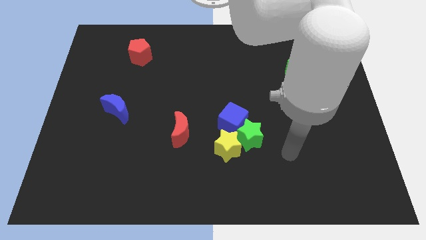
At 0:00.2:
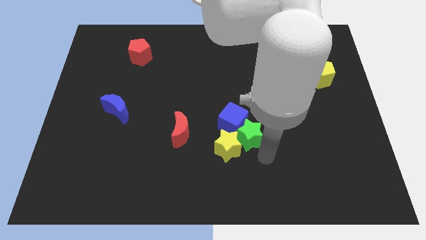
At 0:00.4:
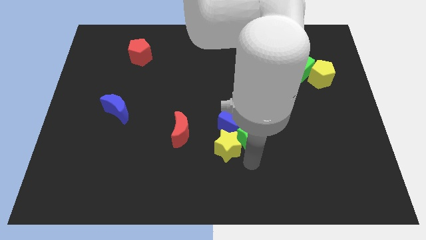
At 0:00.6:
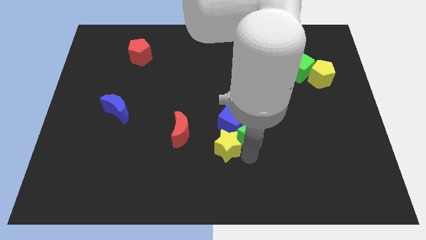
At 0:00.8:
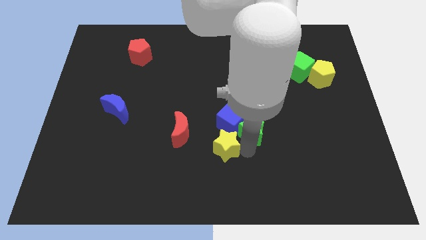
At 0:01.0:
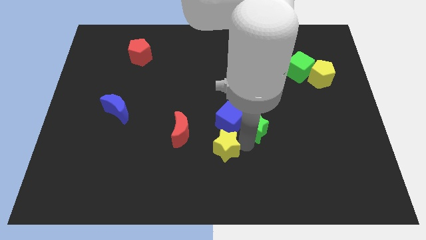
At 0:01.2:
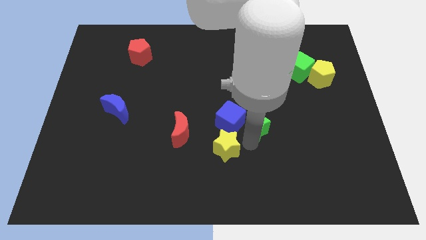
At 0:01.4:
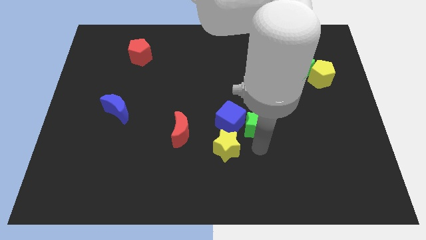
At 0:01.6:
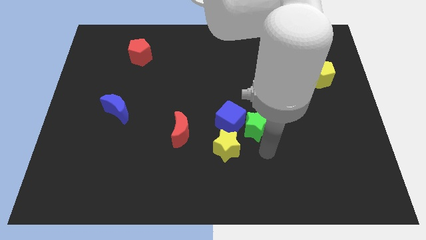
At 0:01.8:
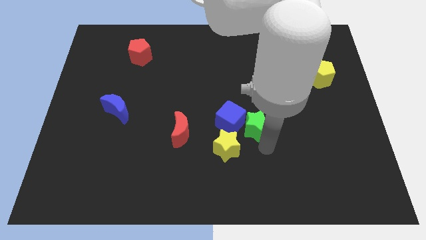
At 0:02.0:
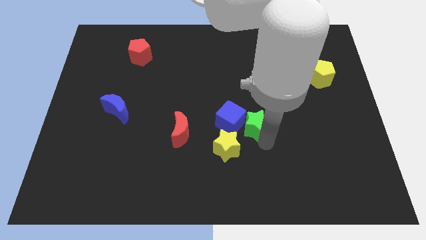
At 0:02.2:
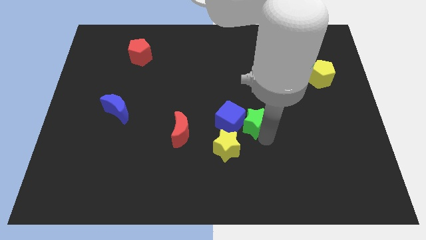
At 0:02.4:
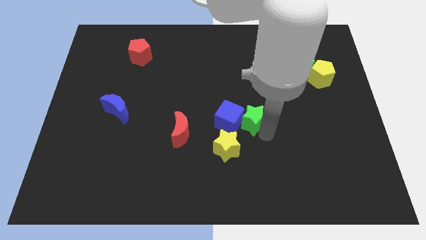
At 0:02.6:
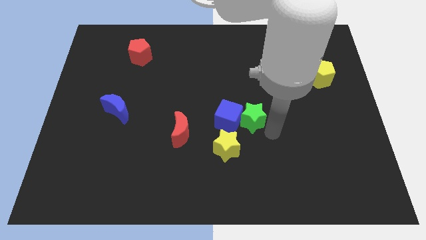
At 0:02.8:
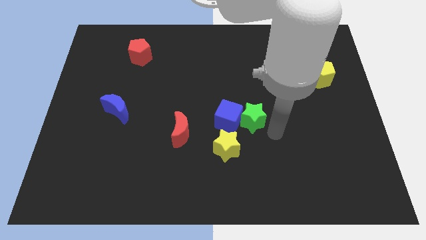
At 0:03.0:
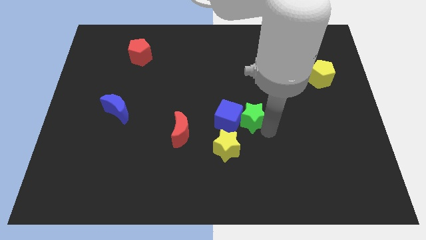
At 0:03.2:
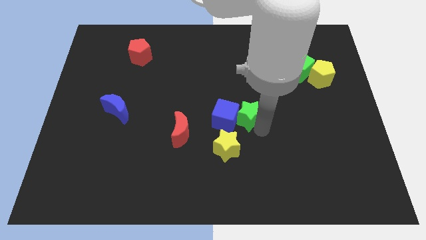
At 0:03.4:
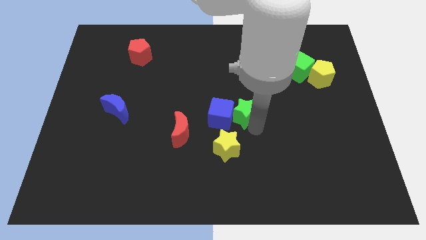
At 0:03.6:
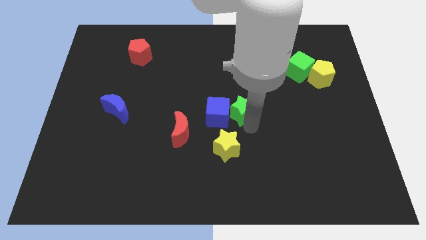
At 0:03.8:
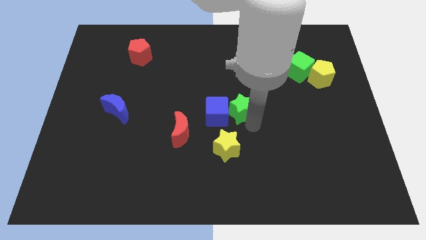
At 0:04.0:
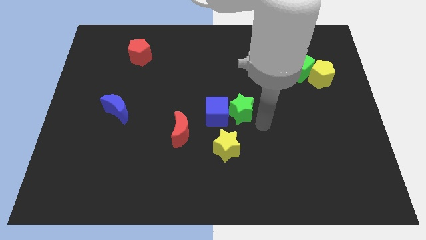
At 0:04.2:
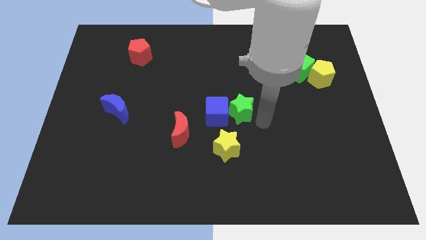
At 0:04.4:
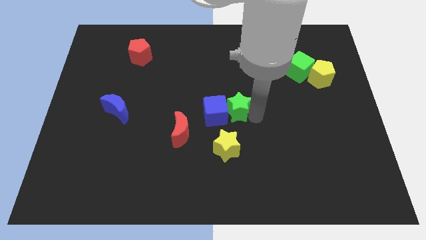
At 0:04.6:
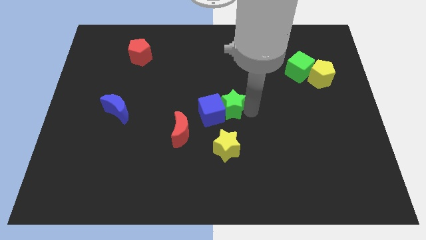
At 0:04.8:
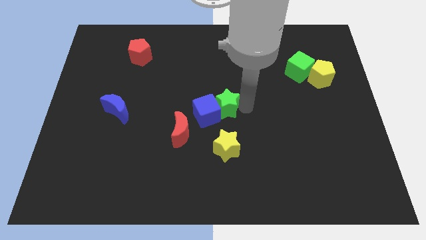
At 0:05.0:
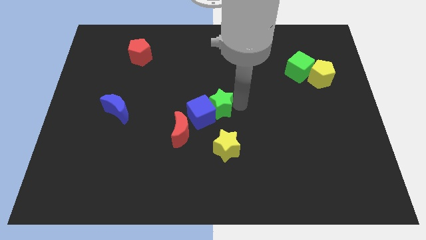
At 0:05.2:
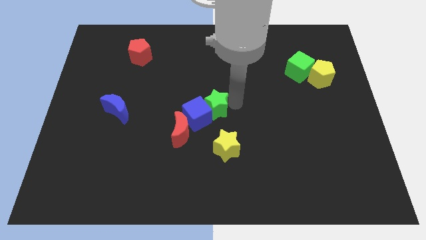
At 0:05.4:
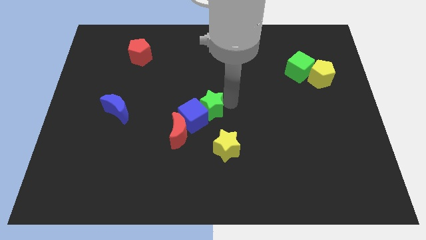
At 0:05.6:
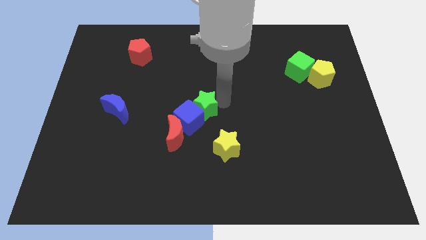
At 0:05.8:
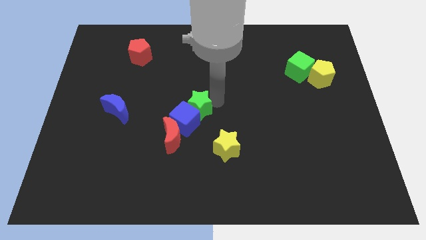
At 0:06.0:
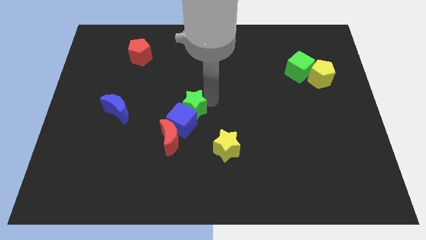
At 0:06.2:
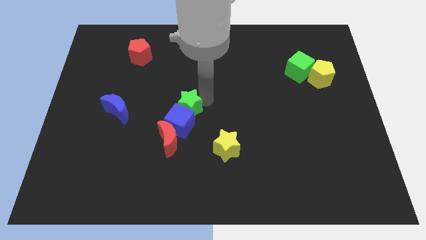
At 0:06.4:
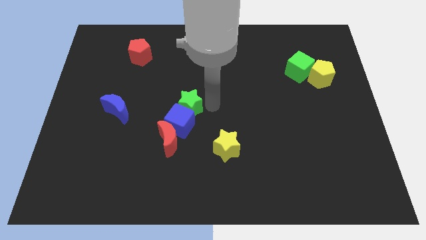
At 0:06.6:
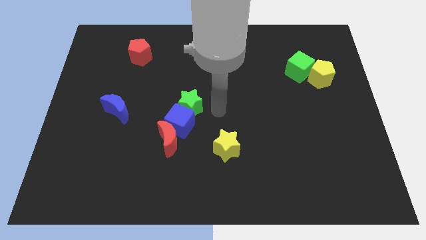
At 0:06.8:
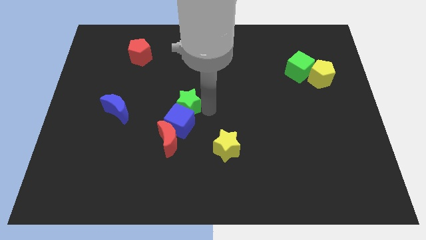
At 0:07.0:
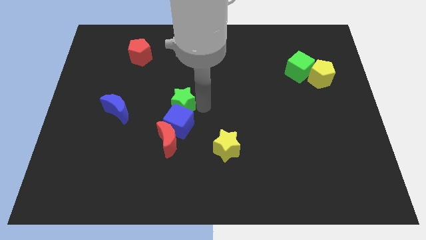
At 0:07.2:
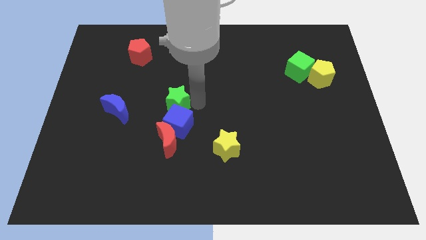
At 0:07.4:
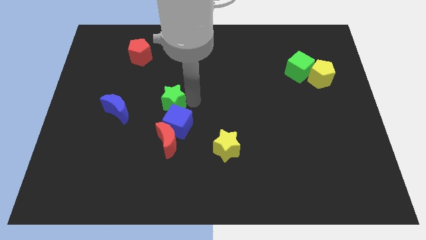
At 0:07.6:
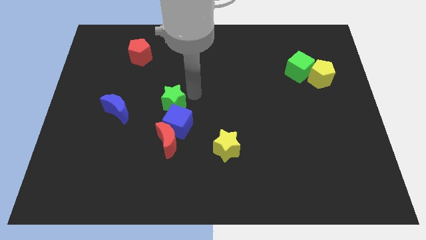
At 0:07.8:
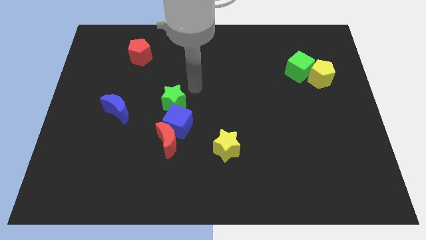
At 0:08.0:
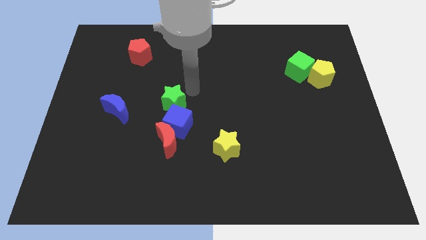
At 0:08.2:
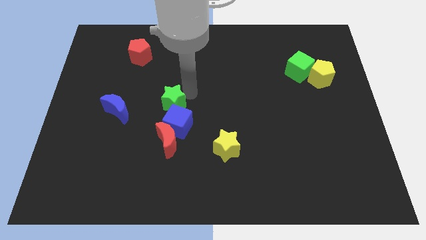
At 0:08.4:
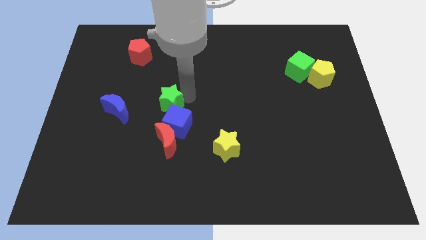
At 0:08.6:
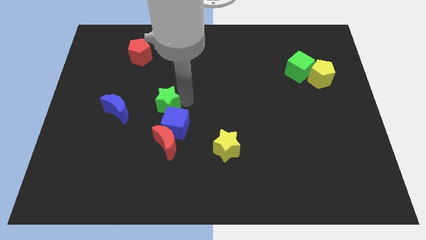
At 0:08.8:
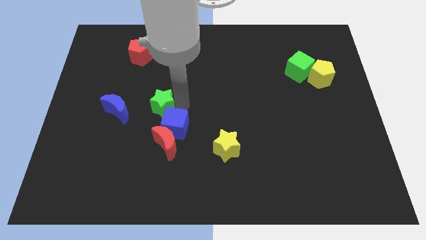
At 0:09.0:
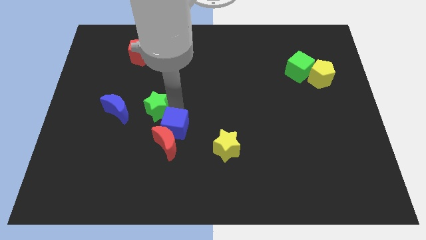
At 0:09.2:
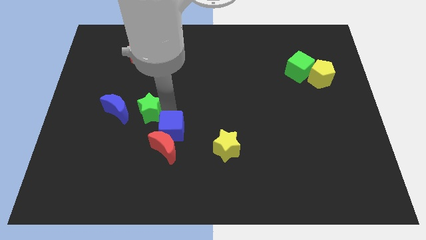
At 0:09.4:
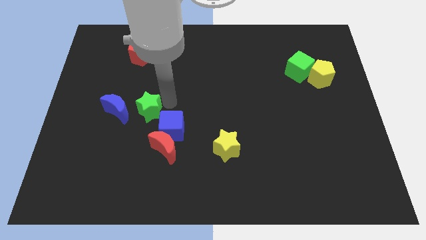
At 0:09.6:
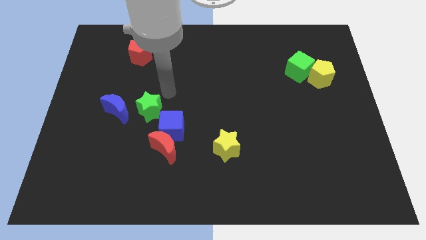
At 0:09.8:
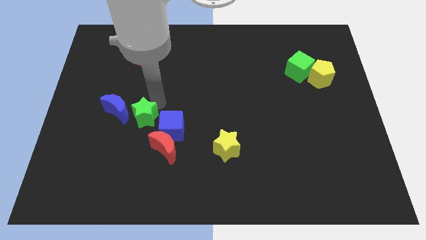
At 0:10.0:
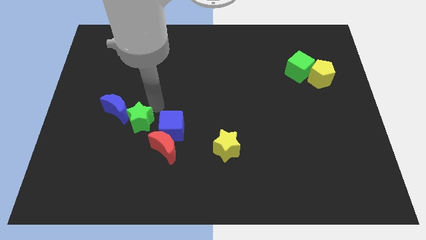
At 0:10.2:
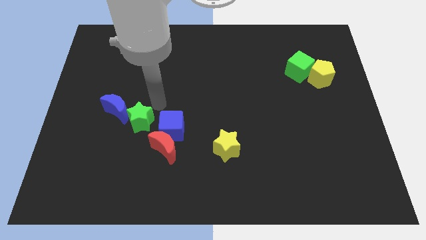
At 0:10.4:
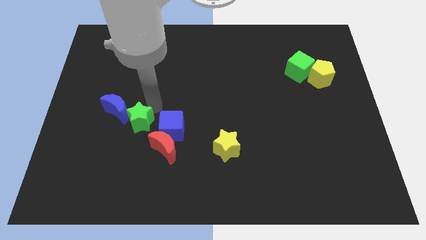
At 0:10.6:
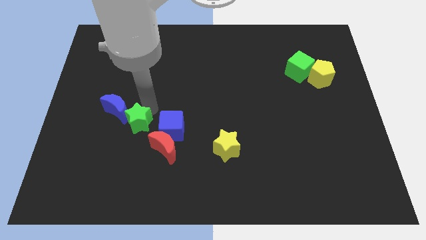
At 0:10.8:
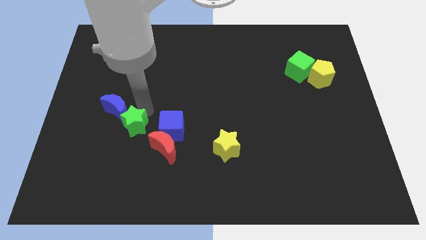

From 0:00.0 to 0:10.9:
slide the green star below the blue moon

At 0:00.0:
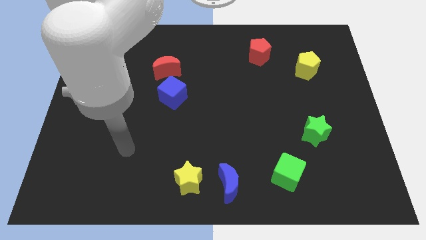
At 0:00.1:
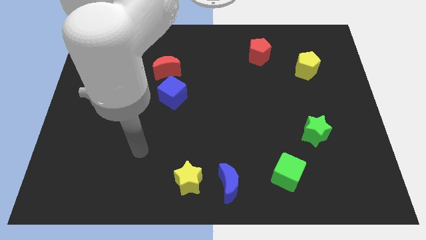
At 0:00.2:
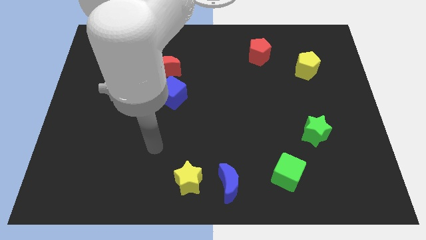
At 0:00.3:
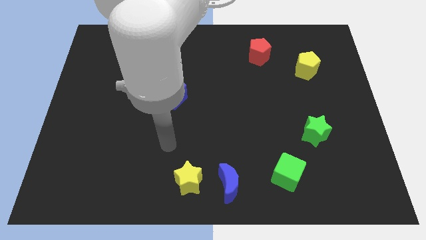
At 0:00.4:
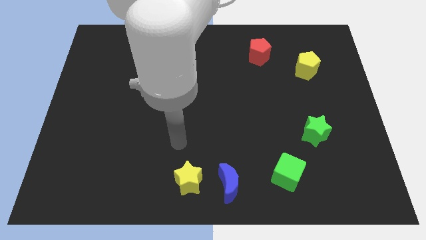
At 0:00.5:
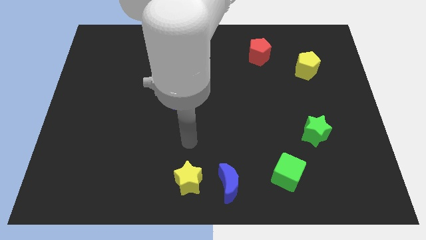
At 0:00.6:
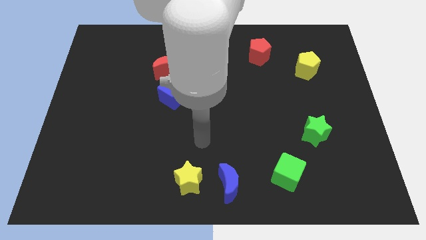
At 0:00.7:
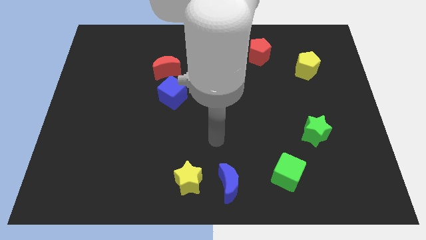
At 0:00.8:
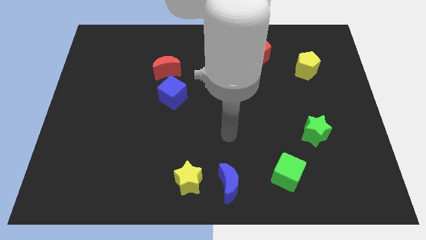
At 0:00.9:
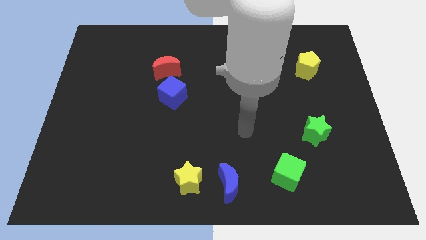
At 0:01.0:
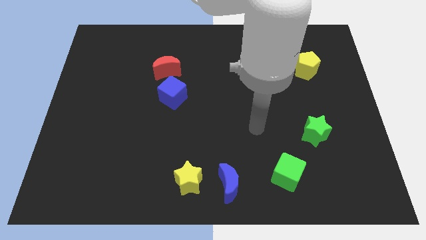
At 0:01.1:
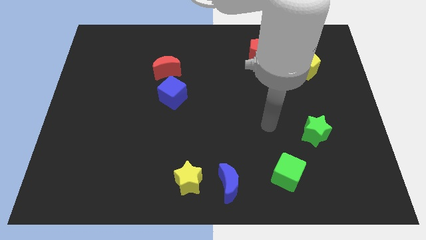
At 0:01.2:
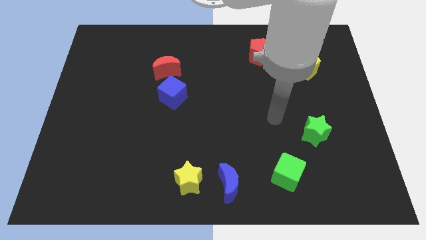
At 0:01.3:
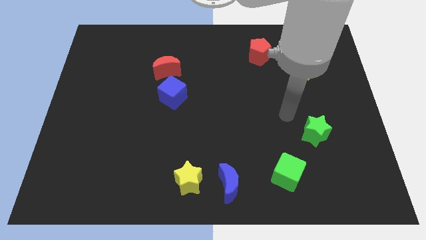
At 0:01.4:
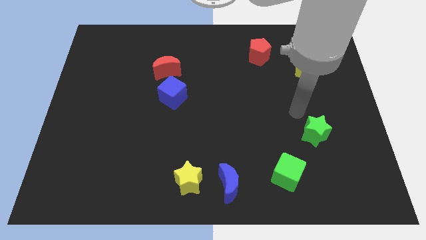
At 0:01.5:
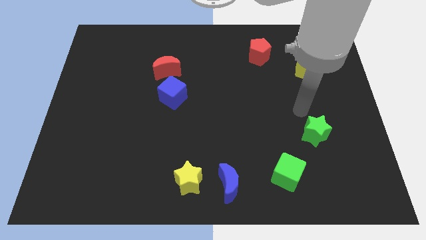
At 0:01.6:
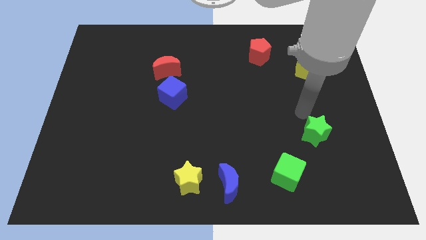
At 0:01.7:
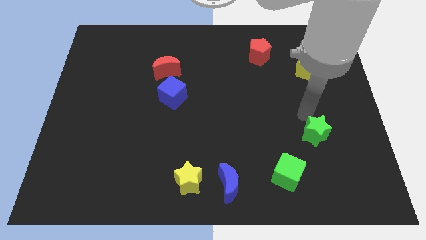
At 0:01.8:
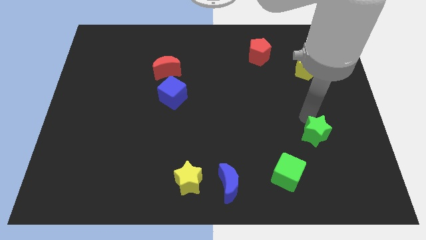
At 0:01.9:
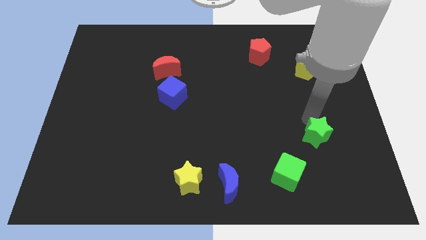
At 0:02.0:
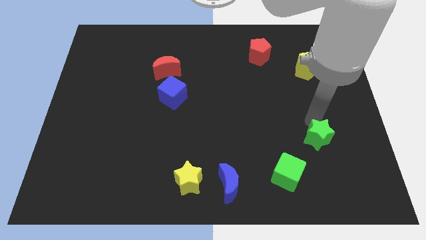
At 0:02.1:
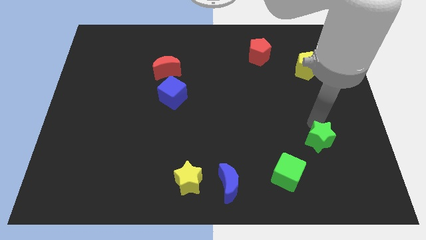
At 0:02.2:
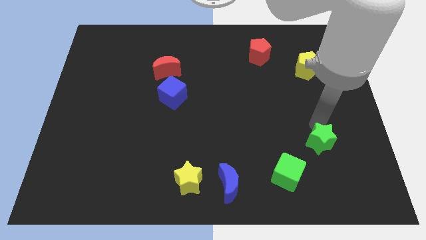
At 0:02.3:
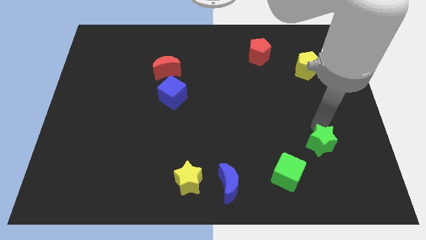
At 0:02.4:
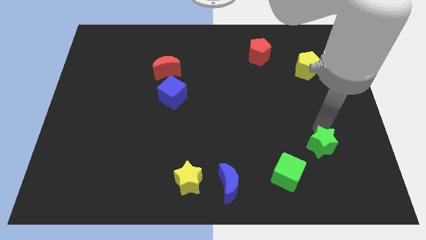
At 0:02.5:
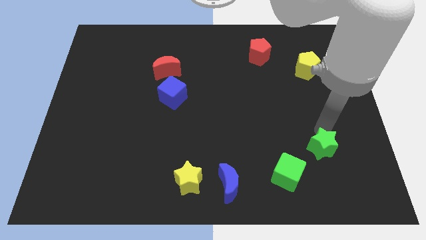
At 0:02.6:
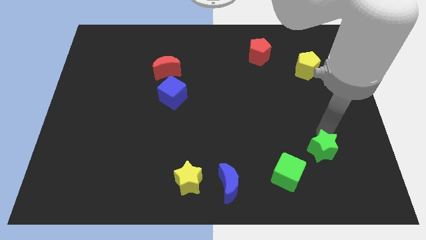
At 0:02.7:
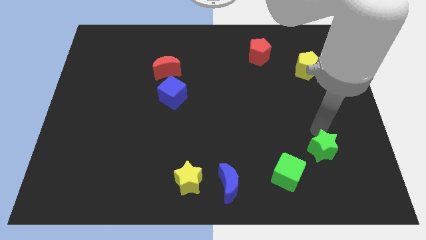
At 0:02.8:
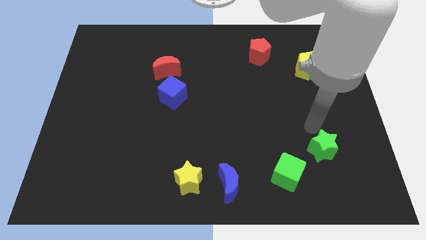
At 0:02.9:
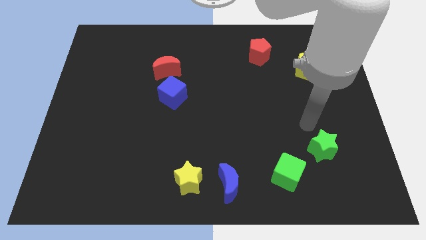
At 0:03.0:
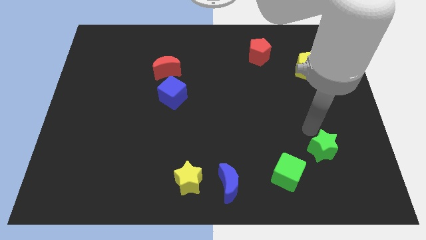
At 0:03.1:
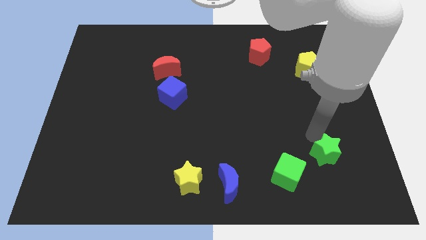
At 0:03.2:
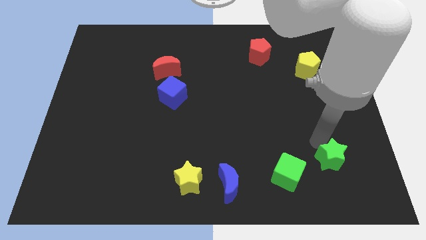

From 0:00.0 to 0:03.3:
put the green star to the right of the green cube
